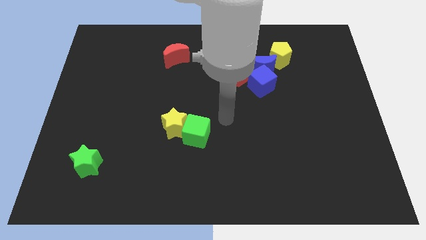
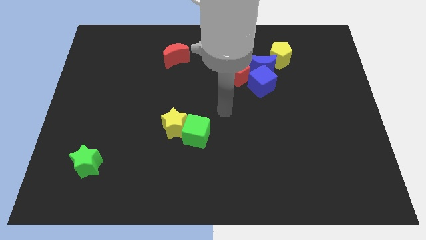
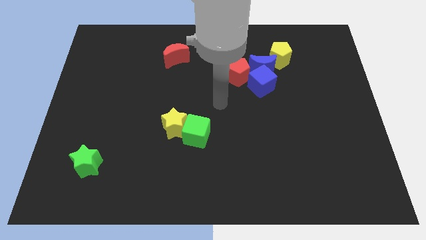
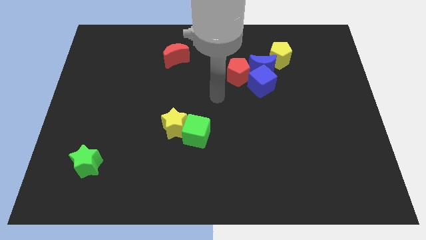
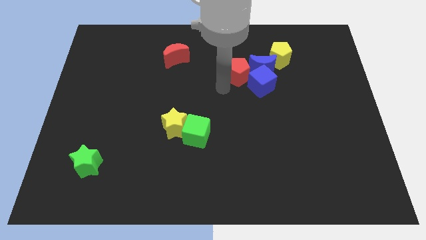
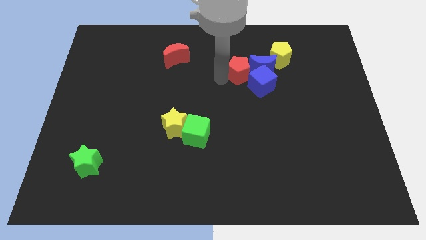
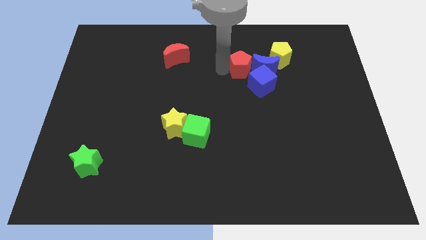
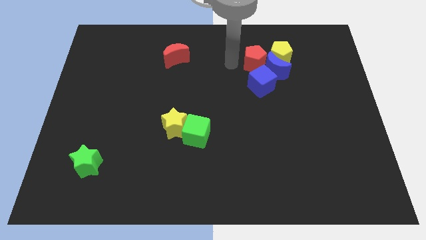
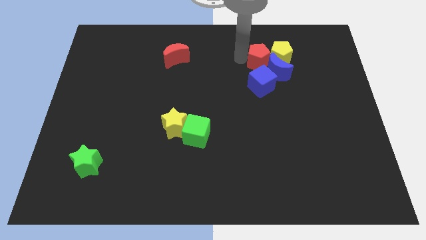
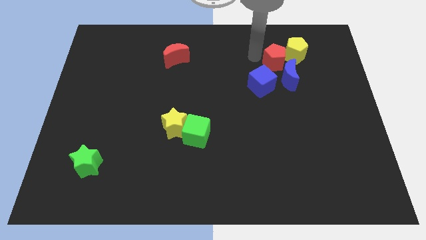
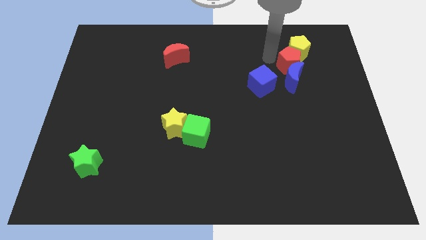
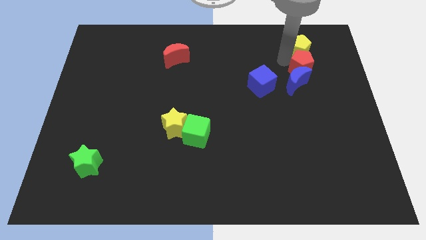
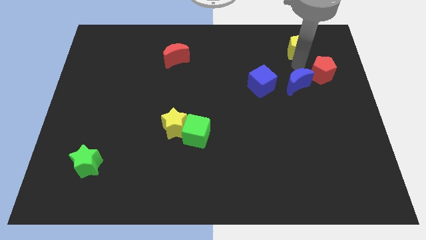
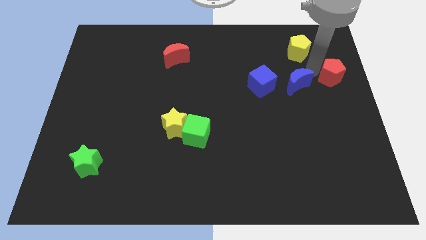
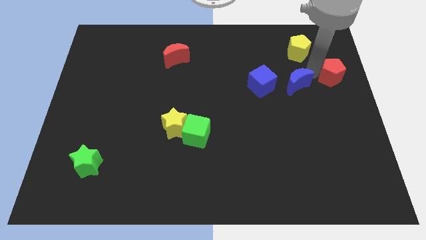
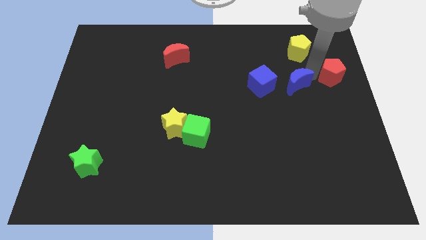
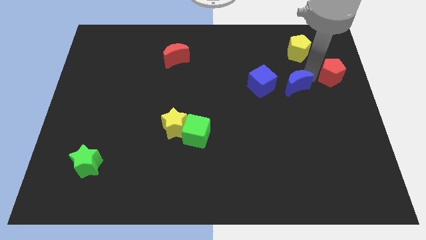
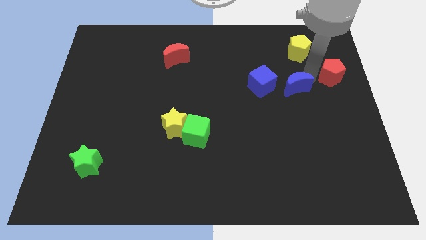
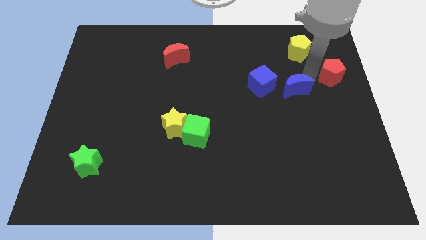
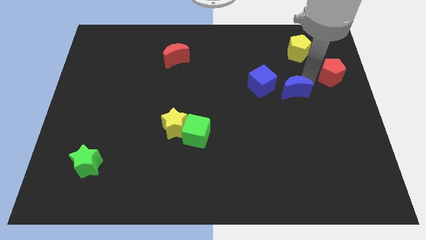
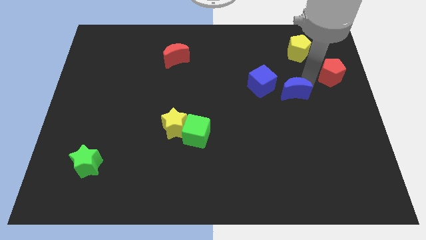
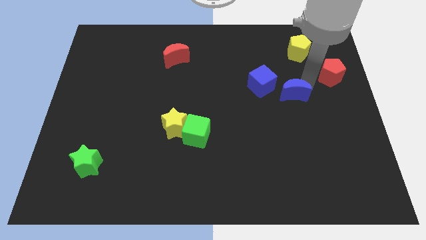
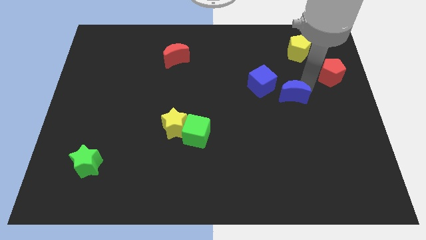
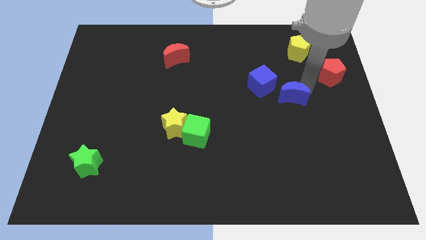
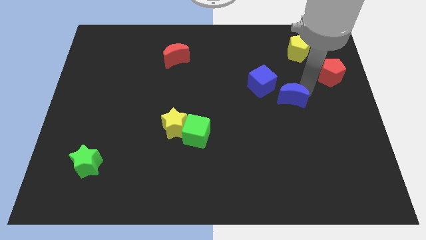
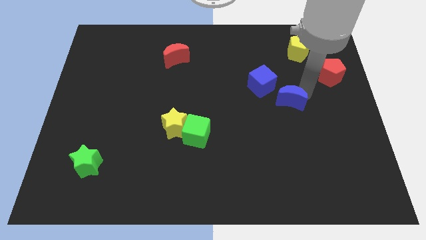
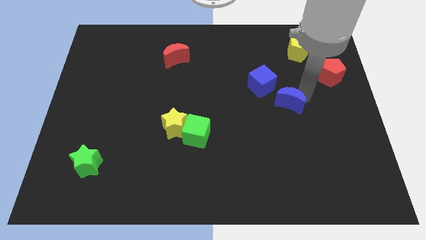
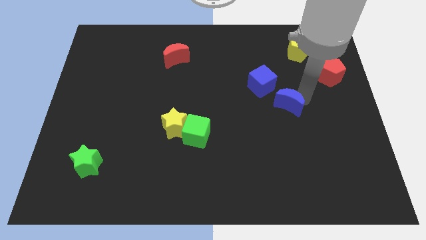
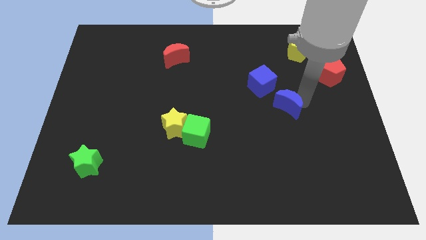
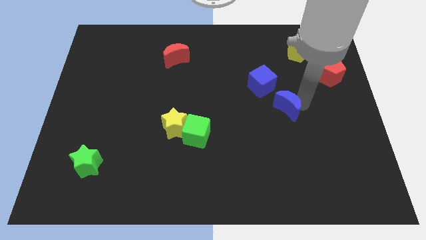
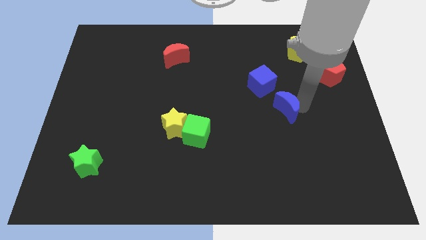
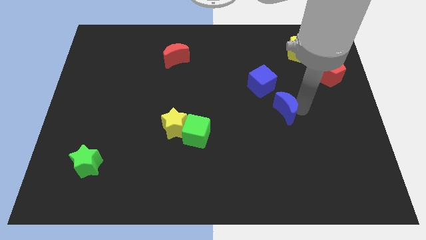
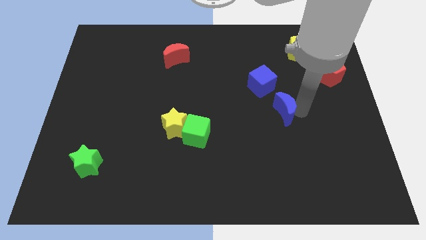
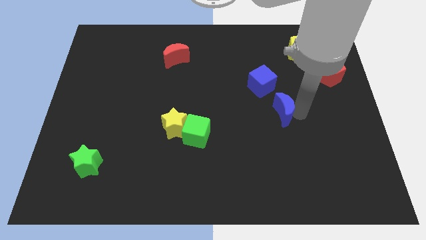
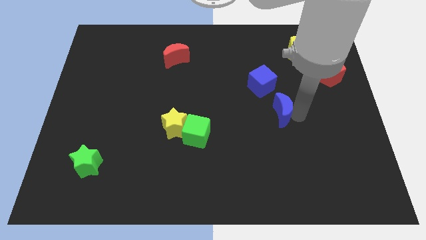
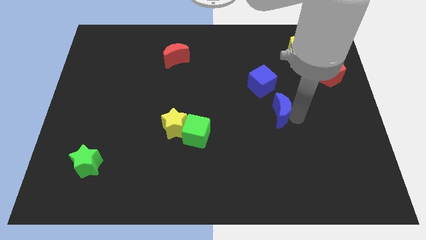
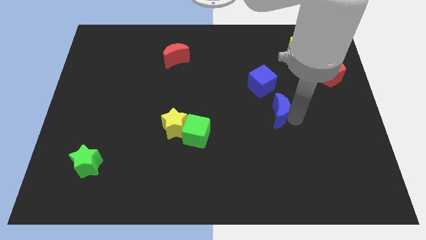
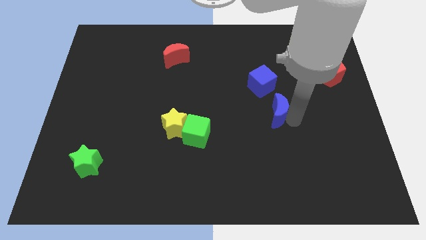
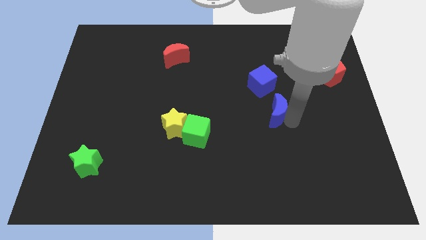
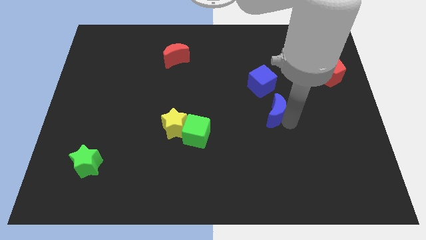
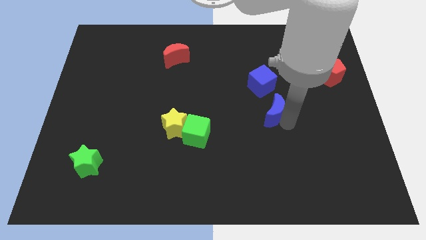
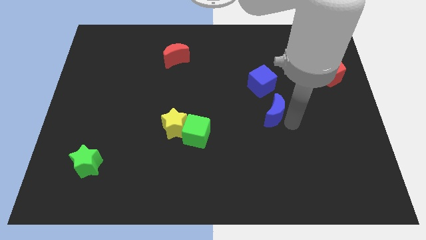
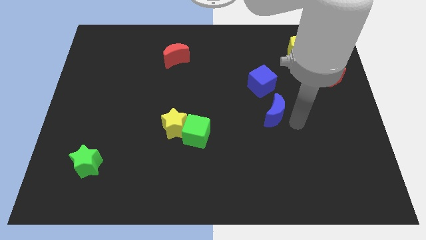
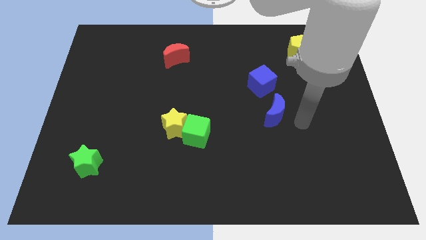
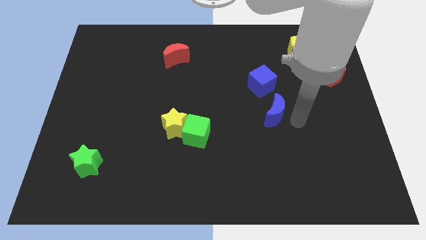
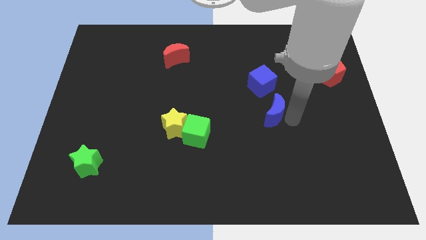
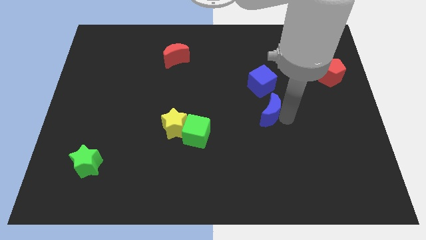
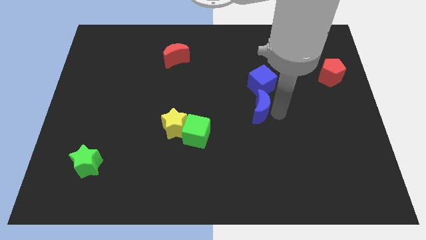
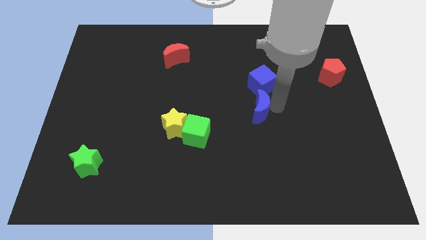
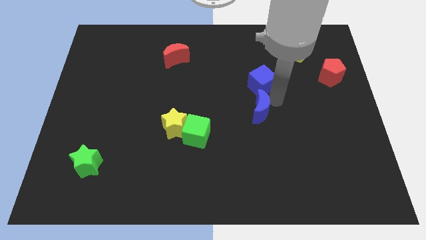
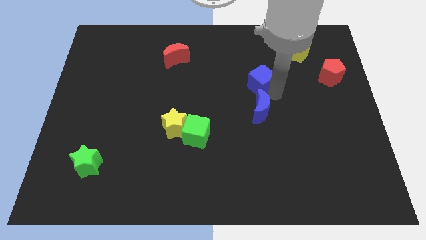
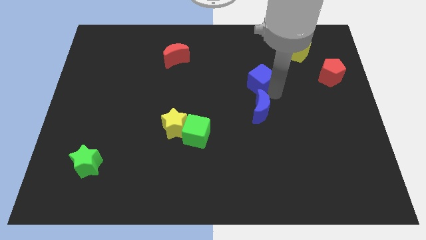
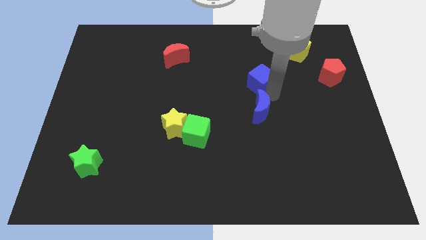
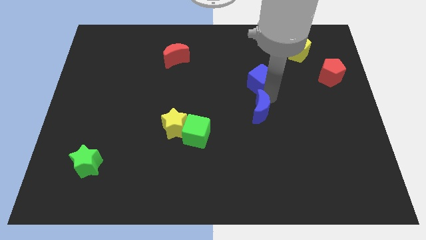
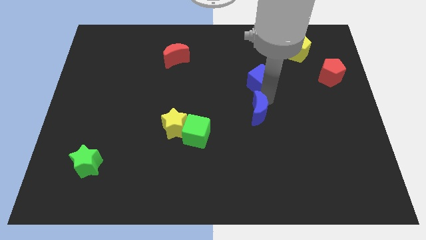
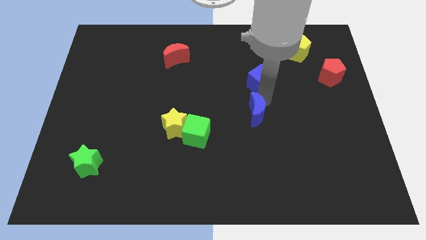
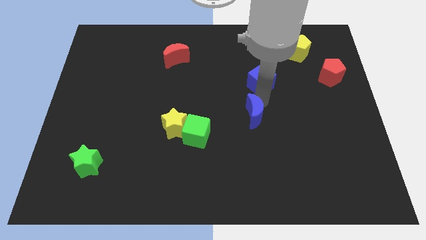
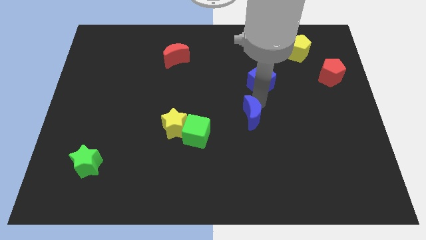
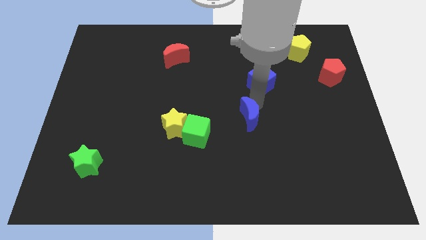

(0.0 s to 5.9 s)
slide the blue moon right of the green cube
